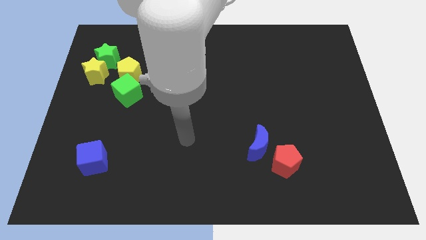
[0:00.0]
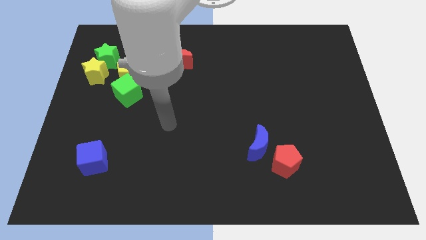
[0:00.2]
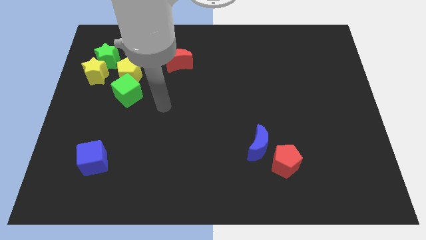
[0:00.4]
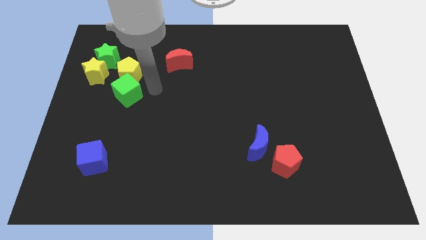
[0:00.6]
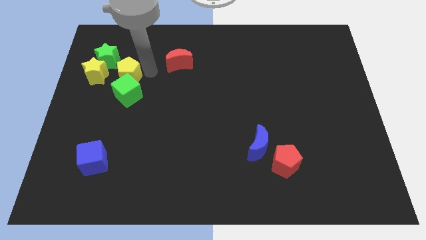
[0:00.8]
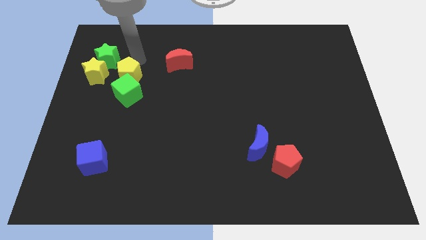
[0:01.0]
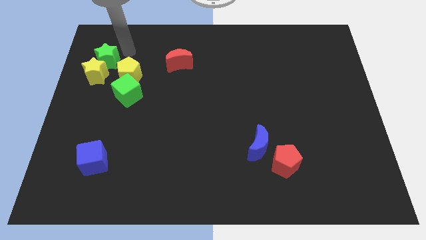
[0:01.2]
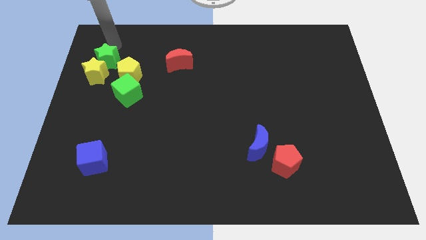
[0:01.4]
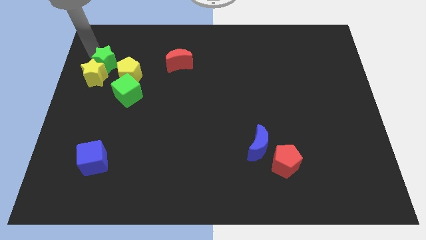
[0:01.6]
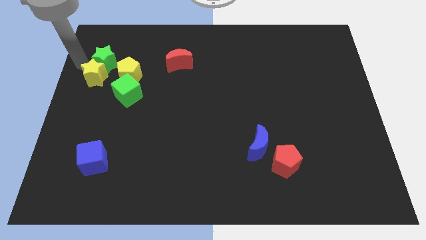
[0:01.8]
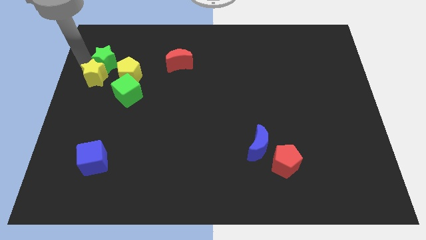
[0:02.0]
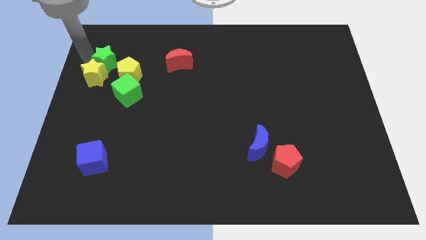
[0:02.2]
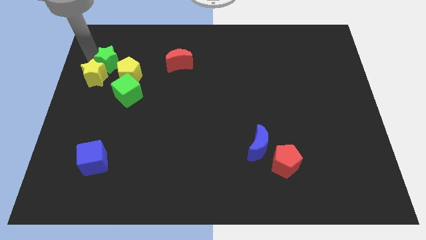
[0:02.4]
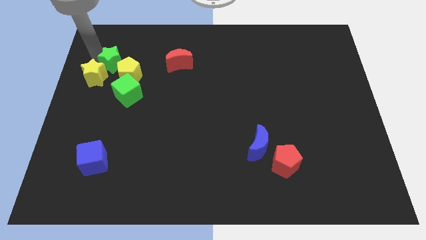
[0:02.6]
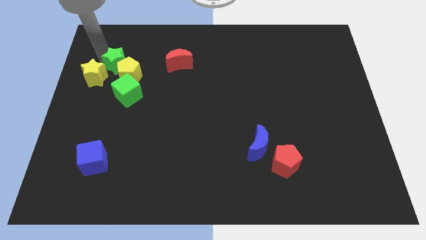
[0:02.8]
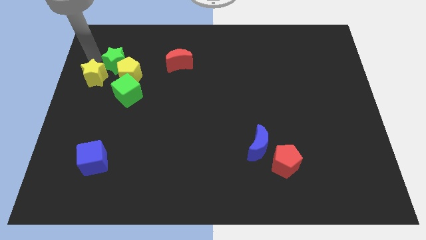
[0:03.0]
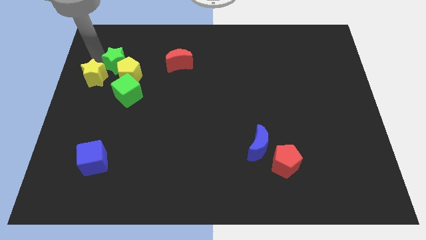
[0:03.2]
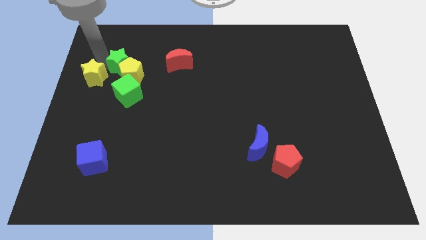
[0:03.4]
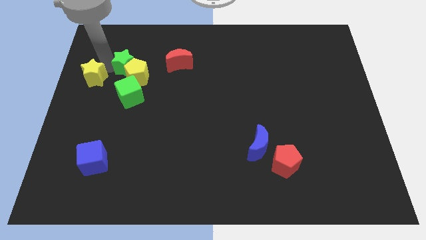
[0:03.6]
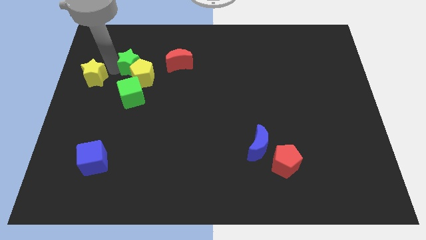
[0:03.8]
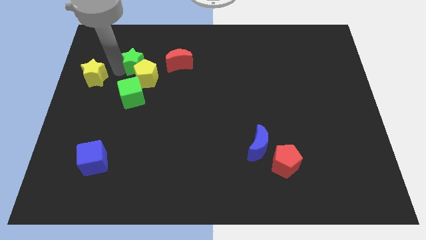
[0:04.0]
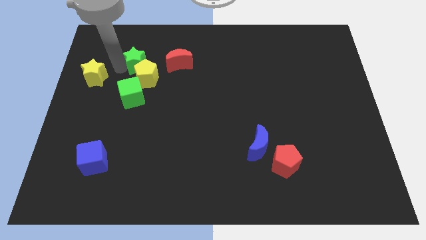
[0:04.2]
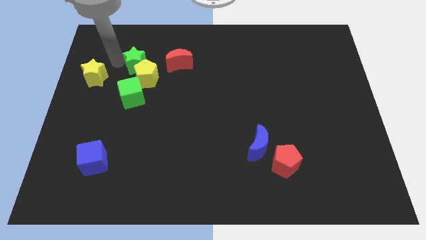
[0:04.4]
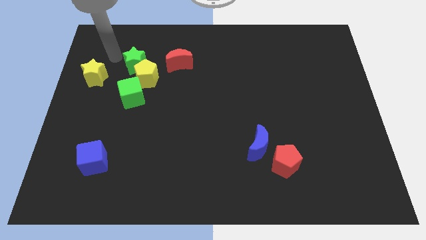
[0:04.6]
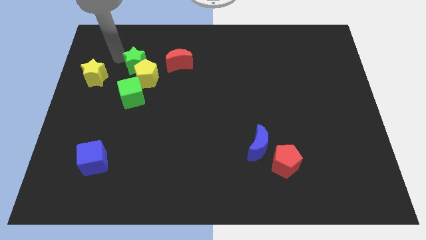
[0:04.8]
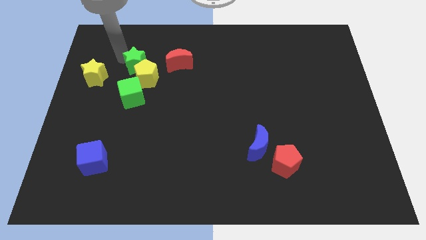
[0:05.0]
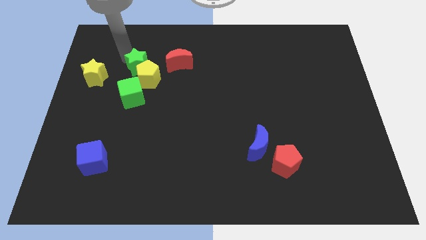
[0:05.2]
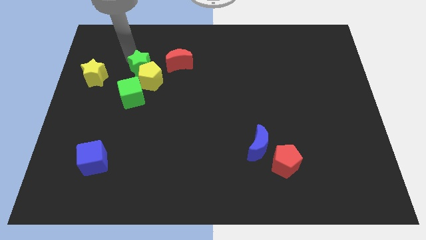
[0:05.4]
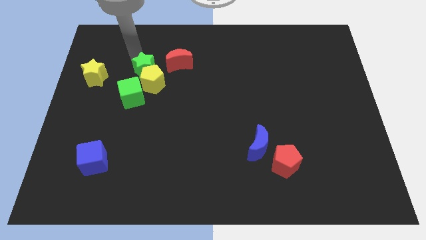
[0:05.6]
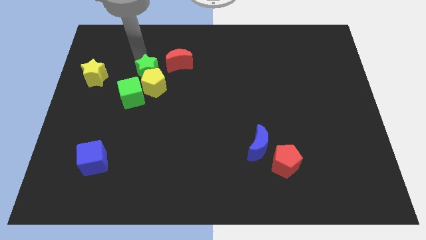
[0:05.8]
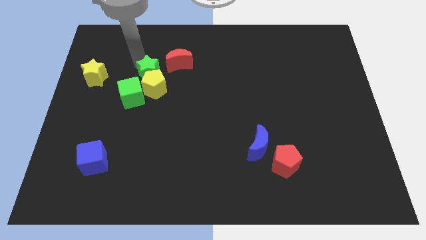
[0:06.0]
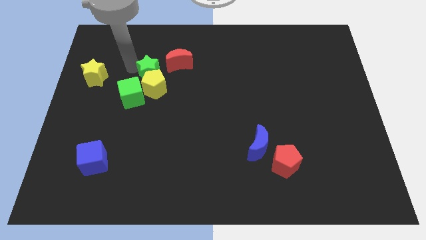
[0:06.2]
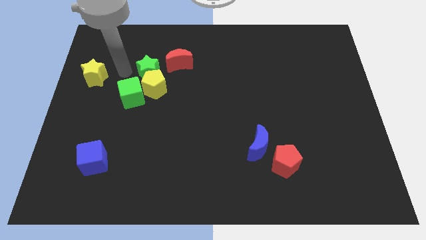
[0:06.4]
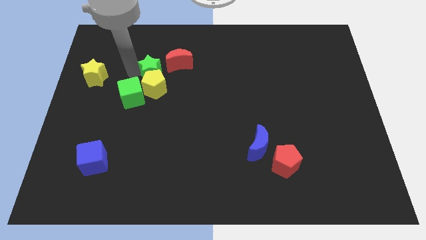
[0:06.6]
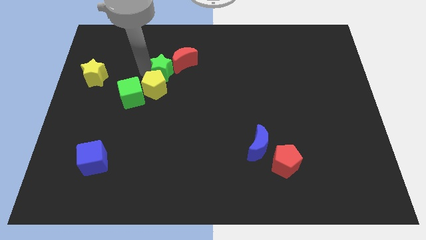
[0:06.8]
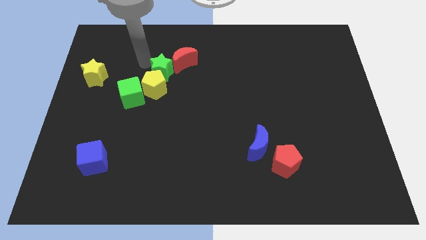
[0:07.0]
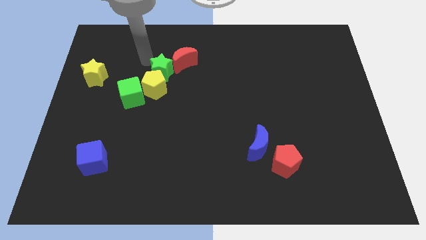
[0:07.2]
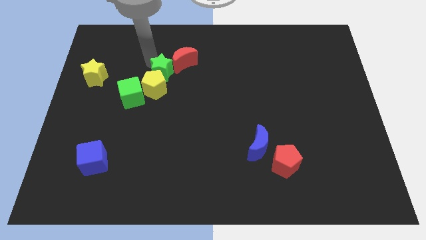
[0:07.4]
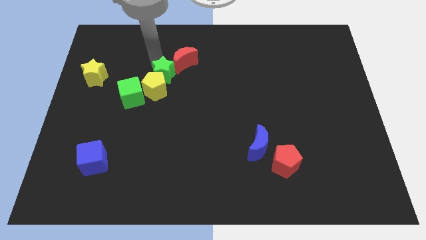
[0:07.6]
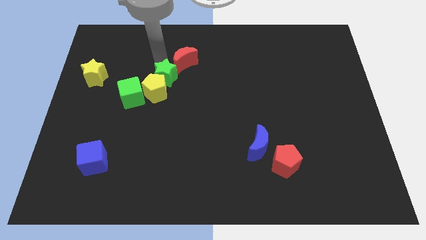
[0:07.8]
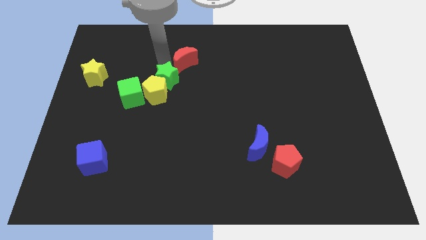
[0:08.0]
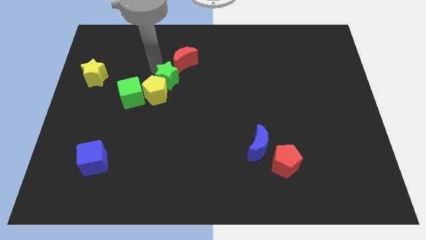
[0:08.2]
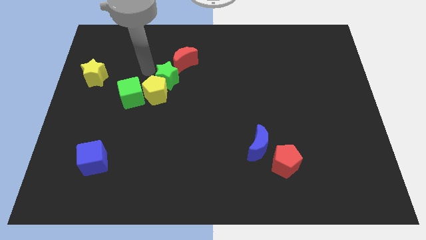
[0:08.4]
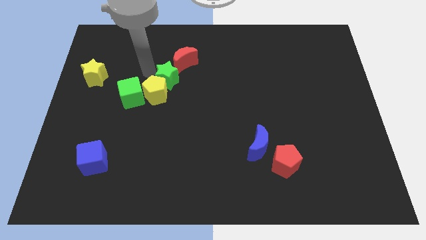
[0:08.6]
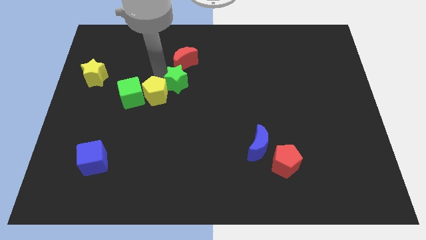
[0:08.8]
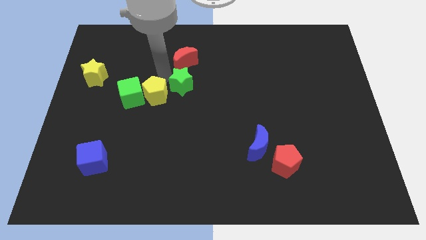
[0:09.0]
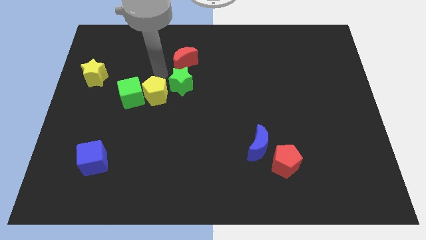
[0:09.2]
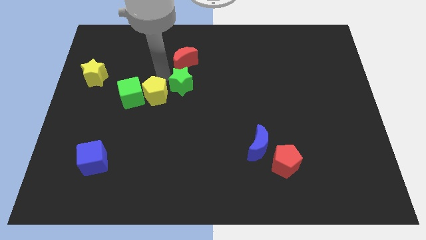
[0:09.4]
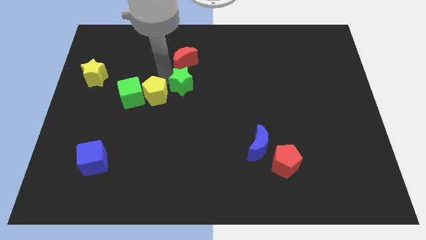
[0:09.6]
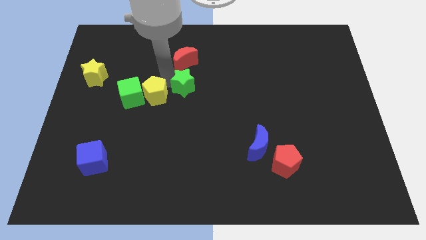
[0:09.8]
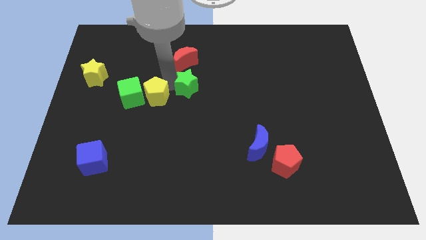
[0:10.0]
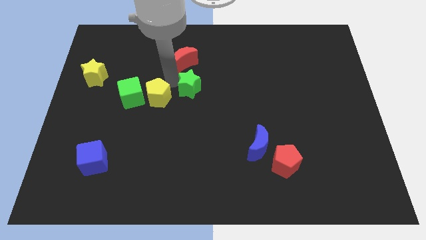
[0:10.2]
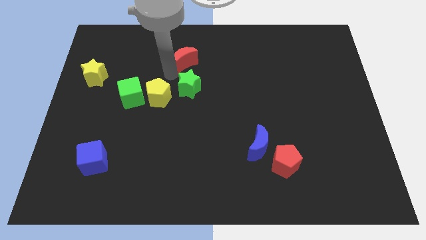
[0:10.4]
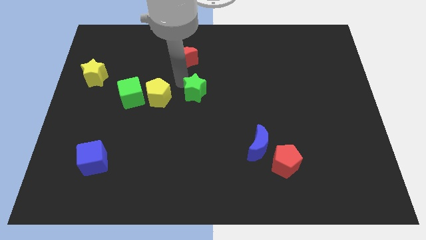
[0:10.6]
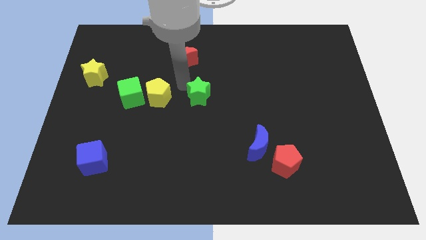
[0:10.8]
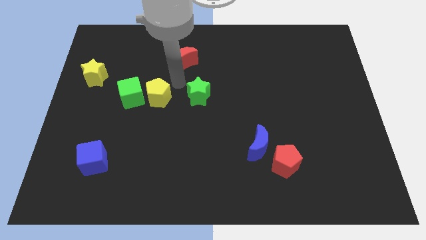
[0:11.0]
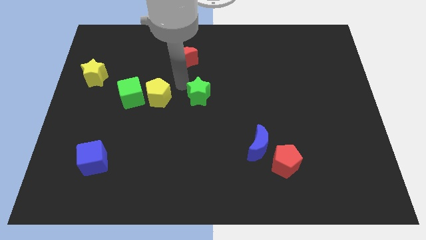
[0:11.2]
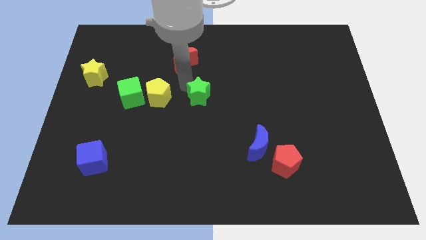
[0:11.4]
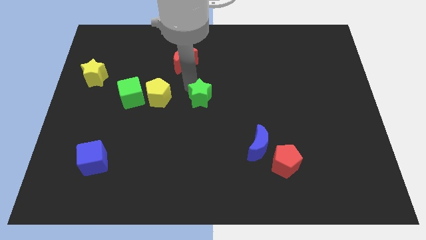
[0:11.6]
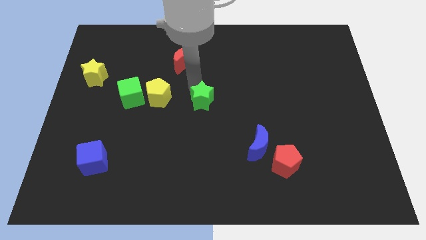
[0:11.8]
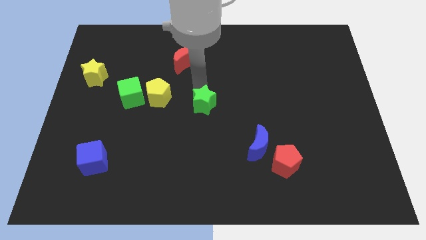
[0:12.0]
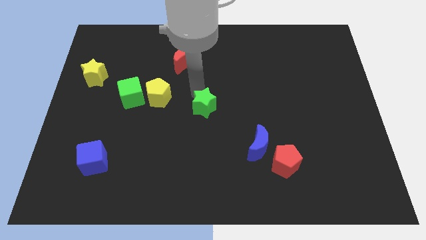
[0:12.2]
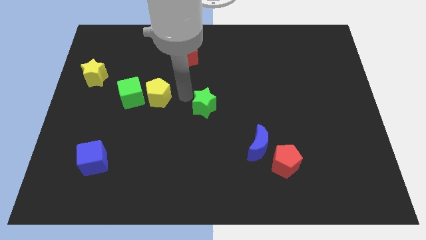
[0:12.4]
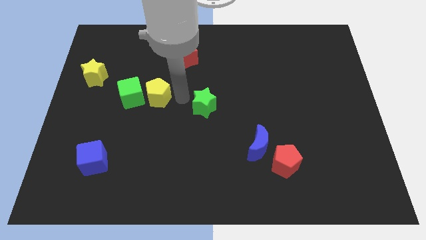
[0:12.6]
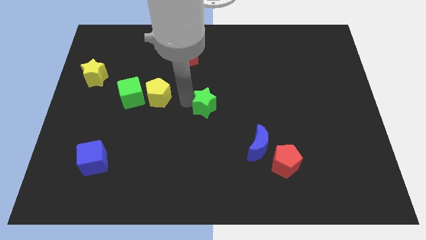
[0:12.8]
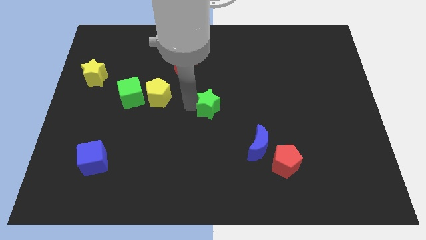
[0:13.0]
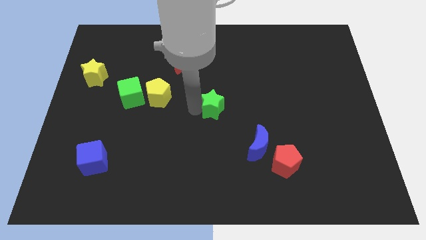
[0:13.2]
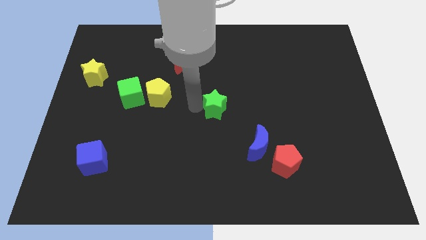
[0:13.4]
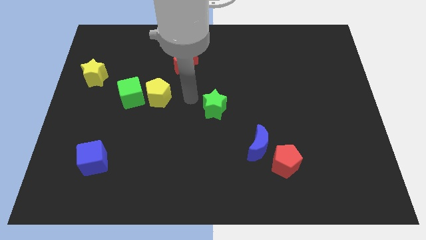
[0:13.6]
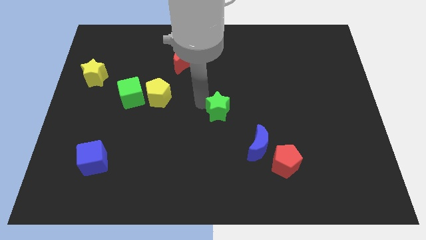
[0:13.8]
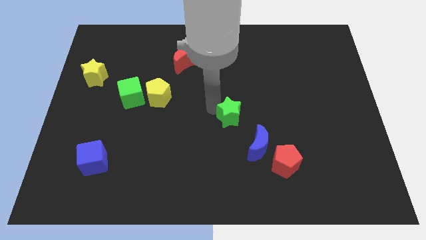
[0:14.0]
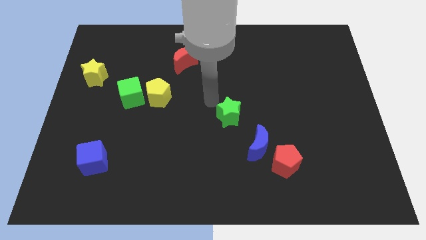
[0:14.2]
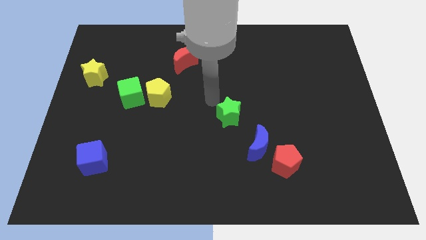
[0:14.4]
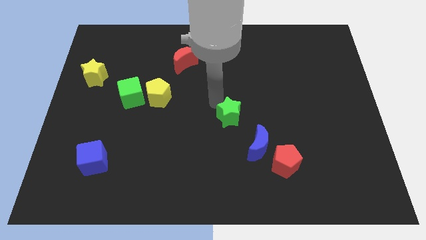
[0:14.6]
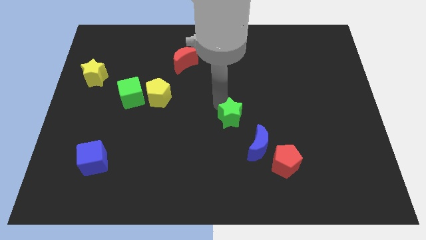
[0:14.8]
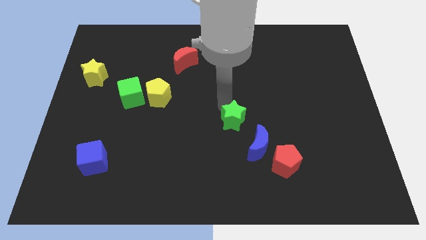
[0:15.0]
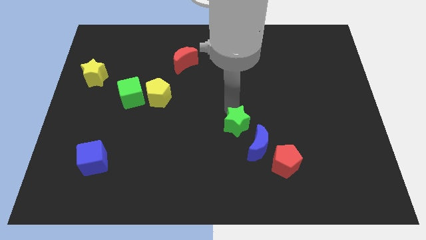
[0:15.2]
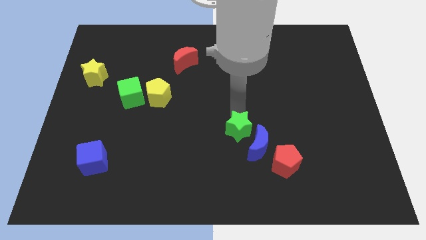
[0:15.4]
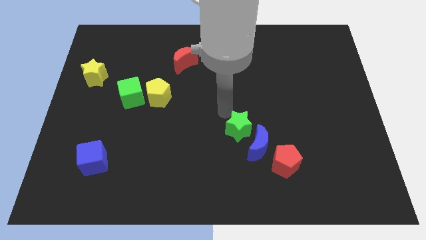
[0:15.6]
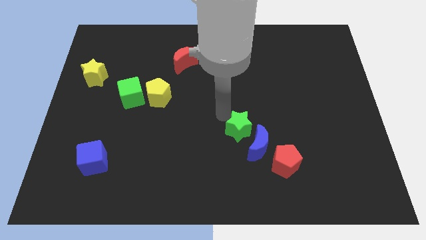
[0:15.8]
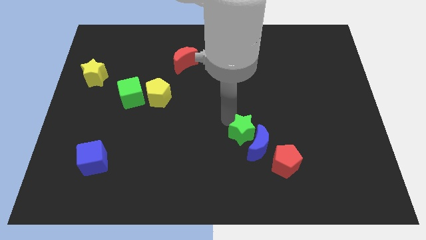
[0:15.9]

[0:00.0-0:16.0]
put the green star to the blue moon

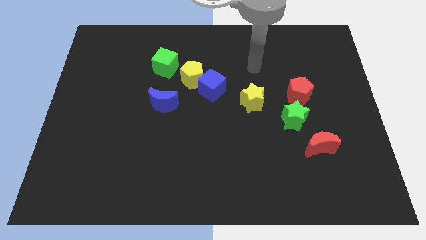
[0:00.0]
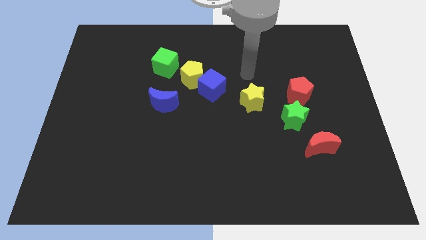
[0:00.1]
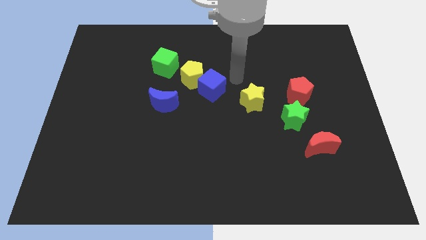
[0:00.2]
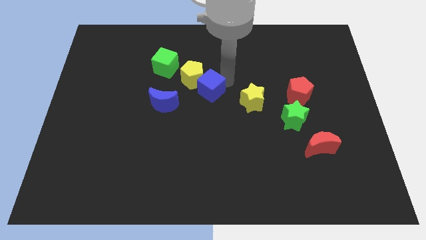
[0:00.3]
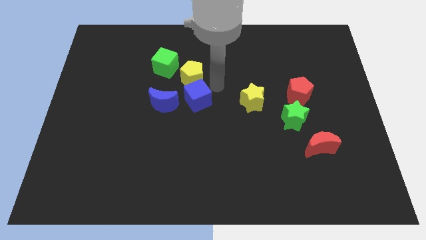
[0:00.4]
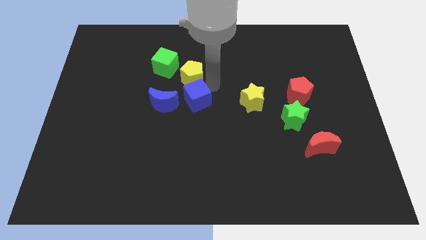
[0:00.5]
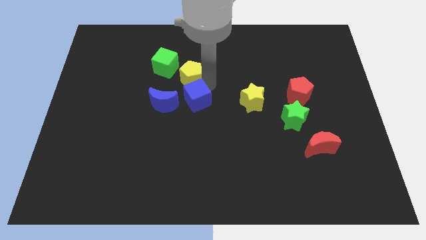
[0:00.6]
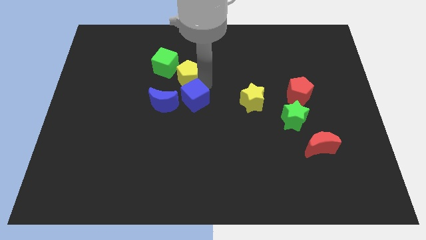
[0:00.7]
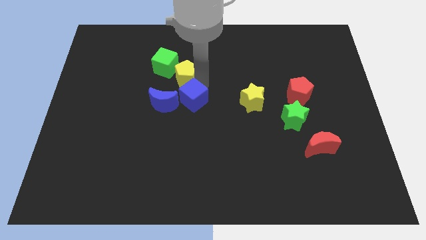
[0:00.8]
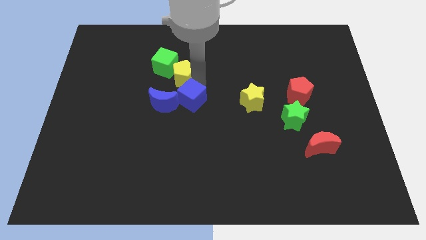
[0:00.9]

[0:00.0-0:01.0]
put the yellow pentagon next to the green cube
